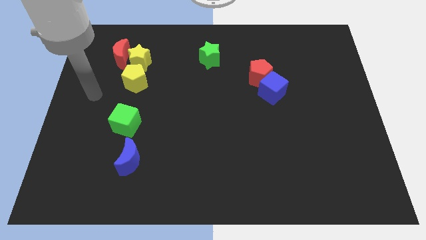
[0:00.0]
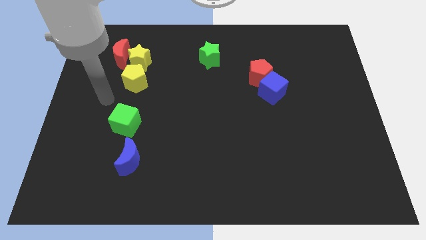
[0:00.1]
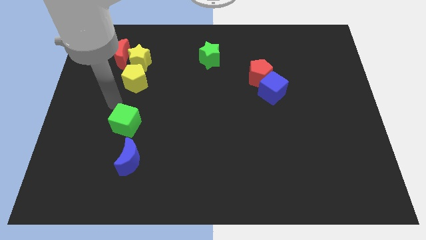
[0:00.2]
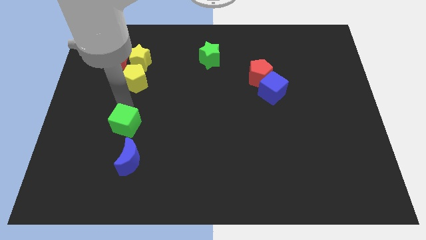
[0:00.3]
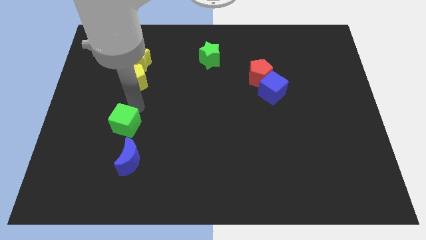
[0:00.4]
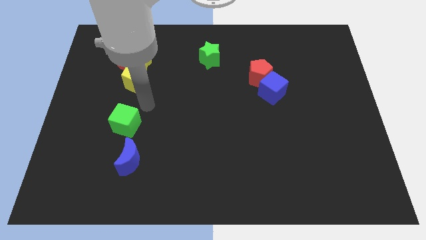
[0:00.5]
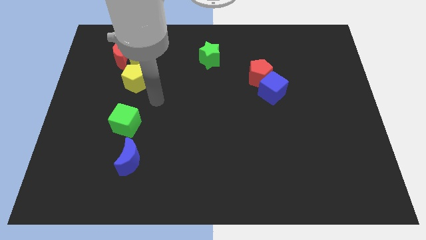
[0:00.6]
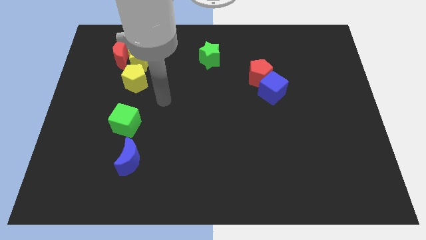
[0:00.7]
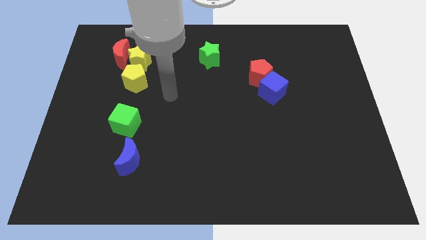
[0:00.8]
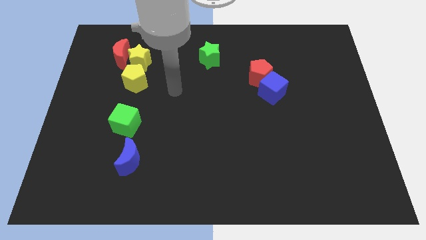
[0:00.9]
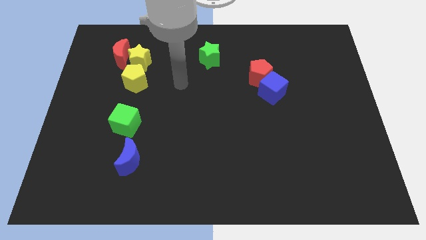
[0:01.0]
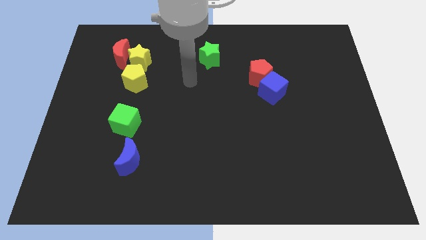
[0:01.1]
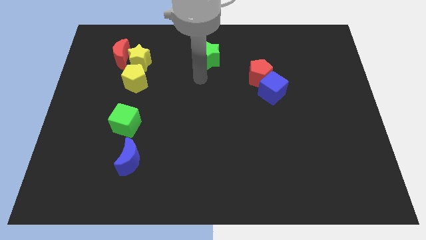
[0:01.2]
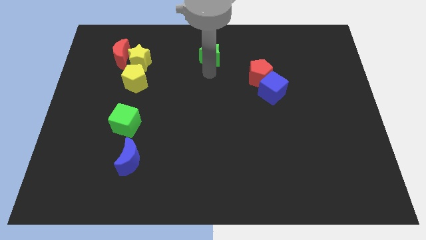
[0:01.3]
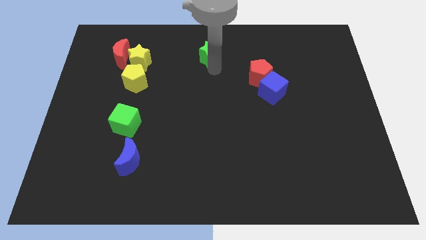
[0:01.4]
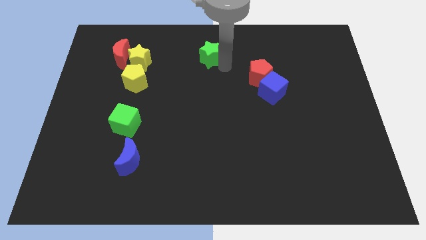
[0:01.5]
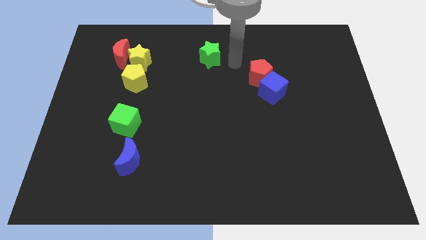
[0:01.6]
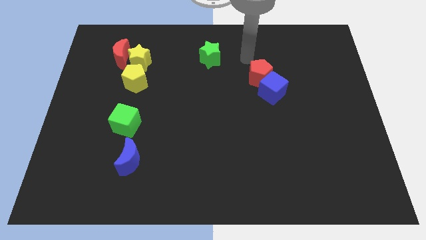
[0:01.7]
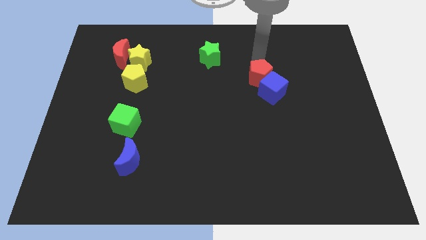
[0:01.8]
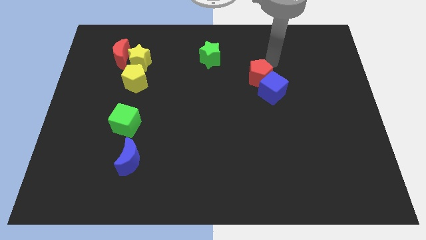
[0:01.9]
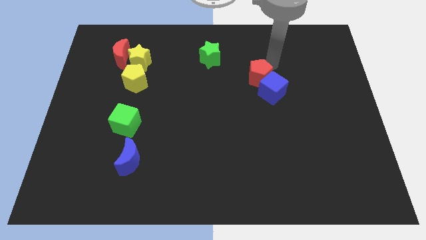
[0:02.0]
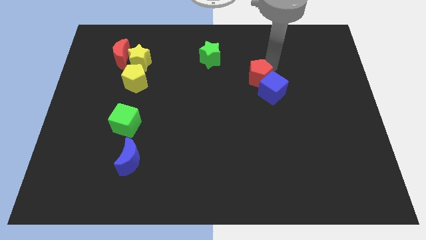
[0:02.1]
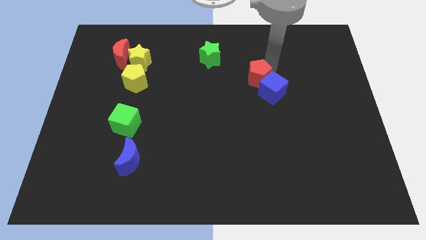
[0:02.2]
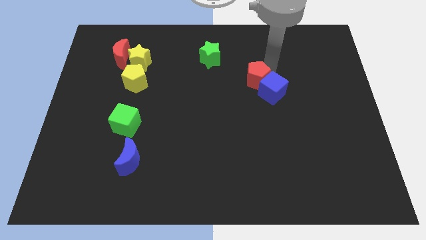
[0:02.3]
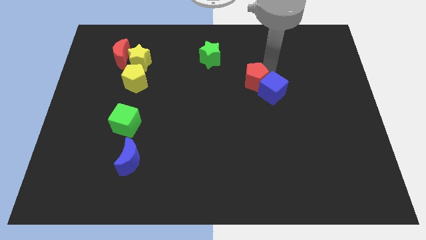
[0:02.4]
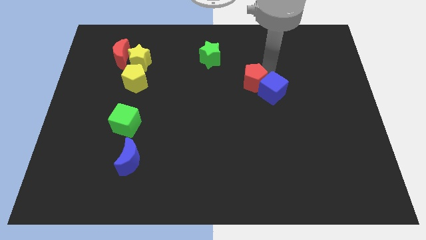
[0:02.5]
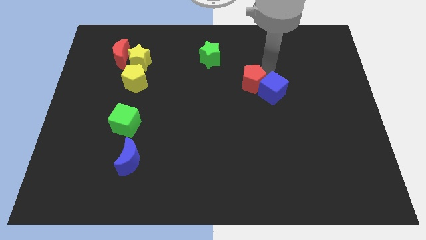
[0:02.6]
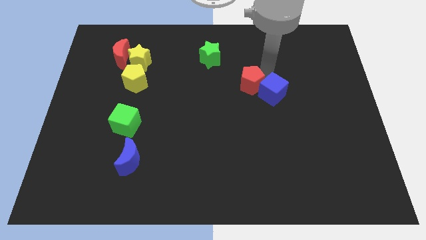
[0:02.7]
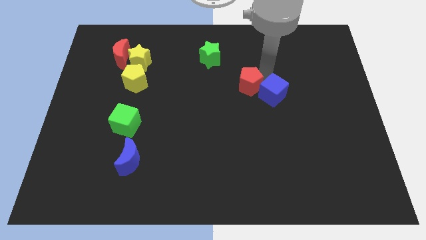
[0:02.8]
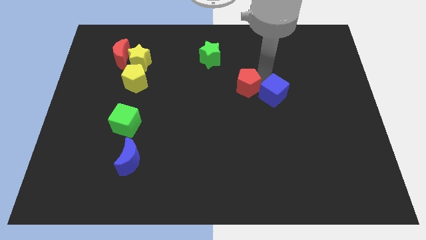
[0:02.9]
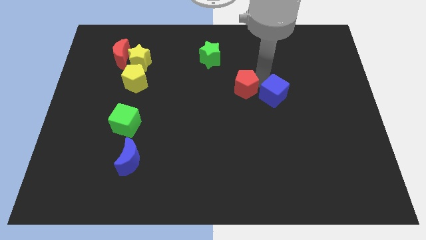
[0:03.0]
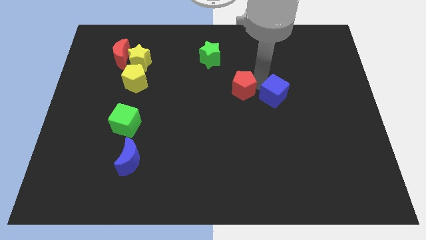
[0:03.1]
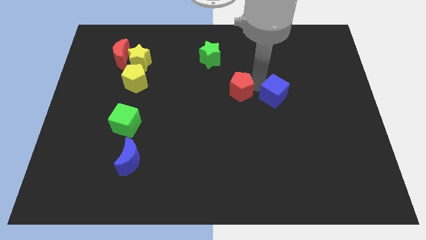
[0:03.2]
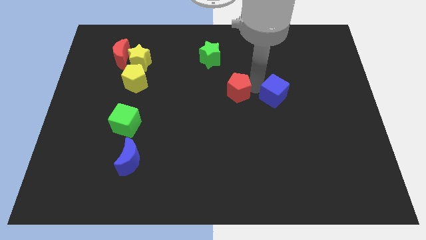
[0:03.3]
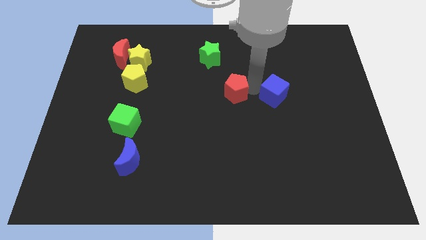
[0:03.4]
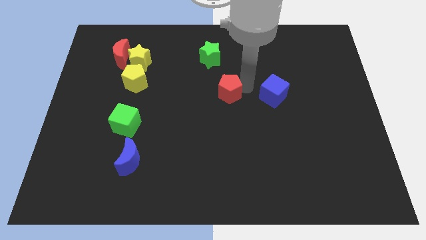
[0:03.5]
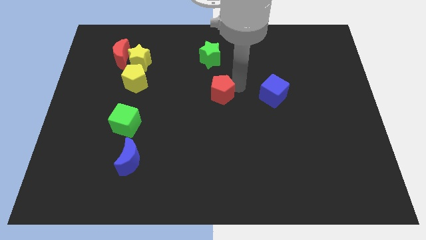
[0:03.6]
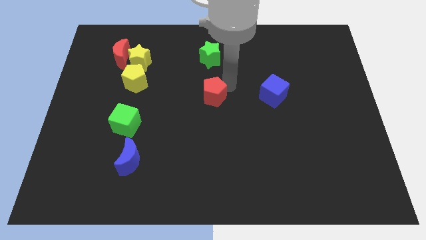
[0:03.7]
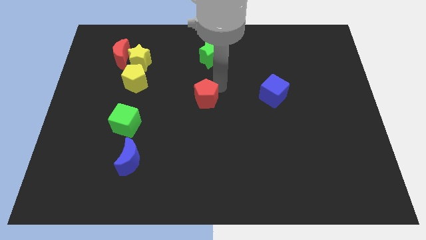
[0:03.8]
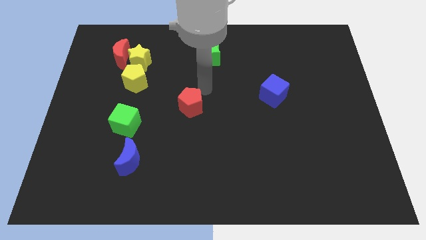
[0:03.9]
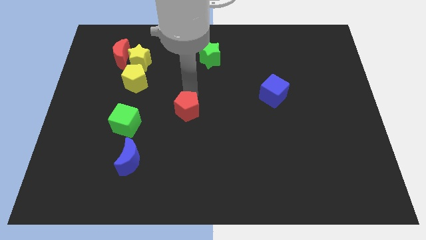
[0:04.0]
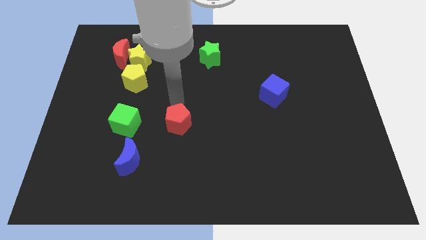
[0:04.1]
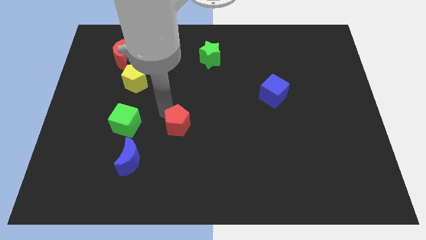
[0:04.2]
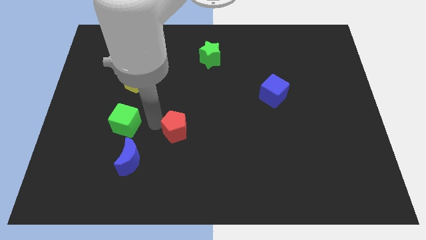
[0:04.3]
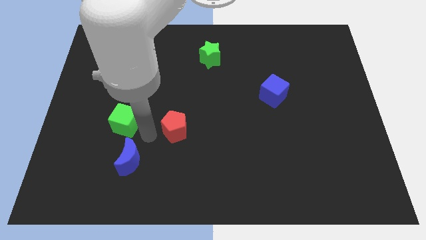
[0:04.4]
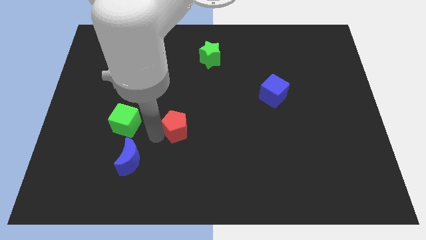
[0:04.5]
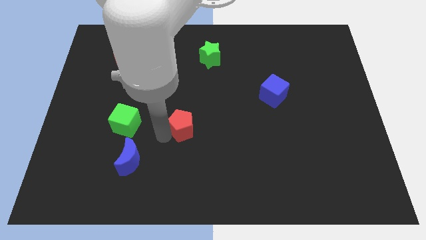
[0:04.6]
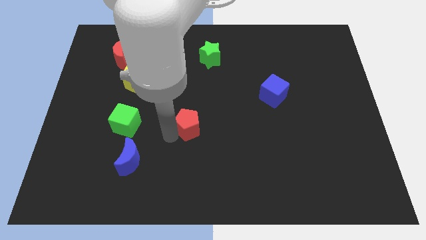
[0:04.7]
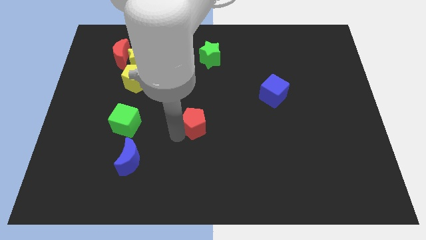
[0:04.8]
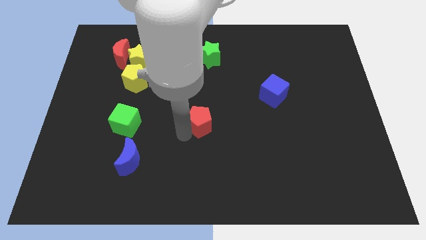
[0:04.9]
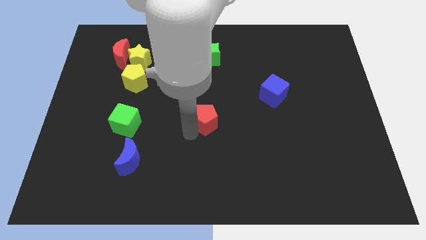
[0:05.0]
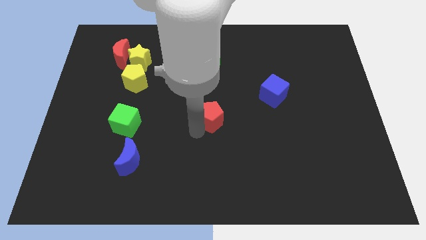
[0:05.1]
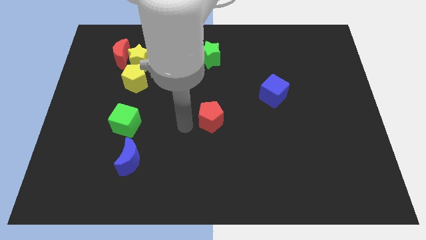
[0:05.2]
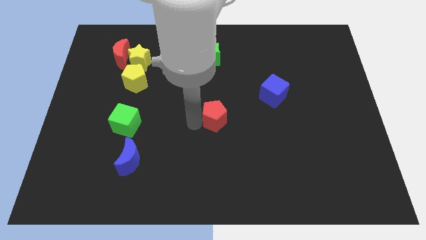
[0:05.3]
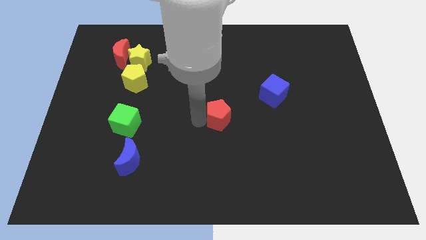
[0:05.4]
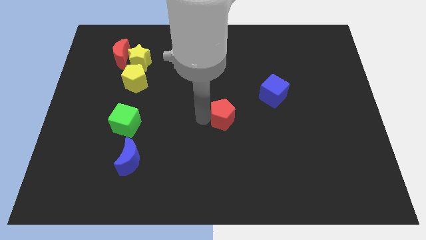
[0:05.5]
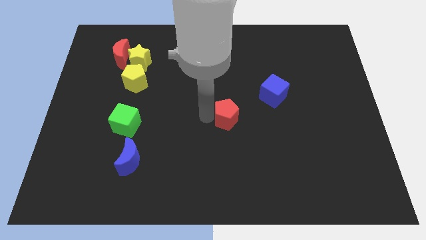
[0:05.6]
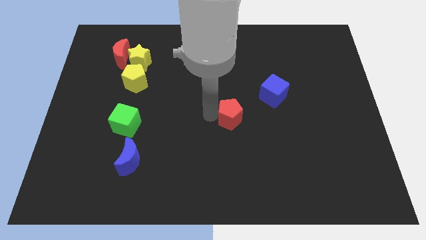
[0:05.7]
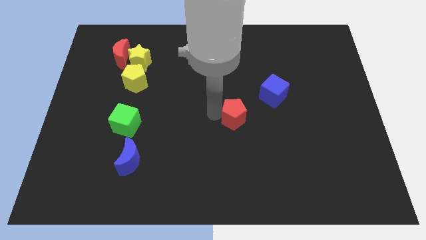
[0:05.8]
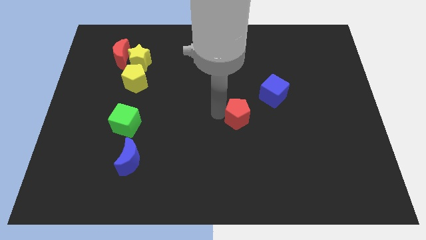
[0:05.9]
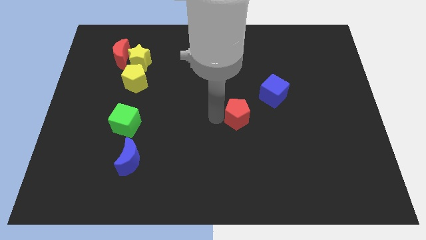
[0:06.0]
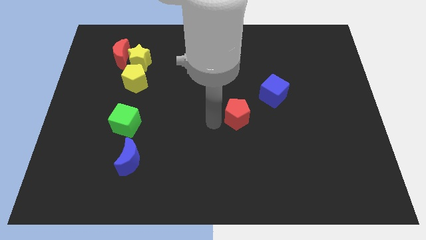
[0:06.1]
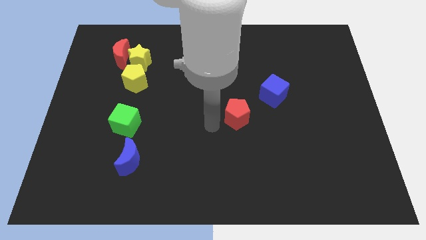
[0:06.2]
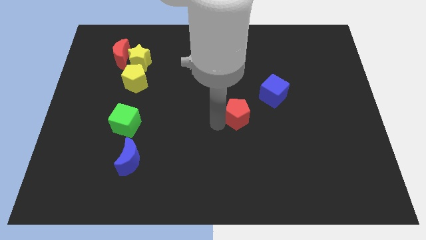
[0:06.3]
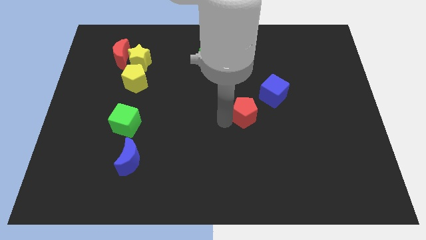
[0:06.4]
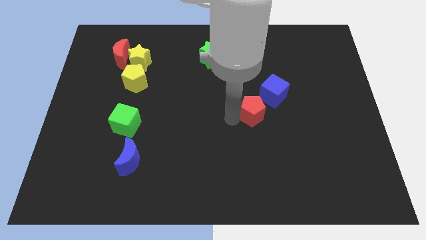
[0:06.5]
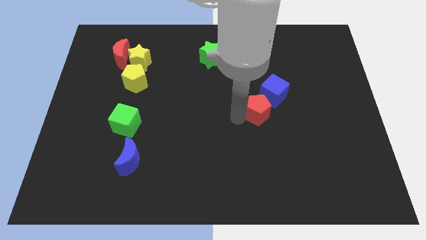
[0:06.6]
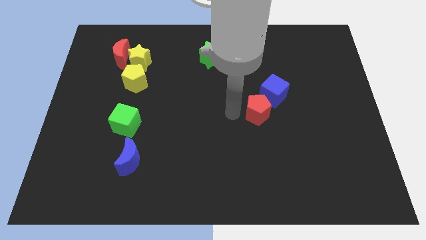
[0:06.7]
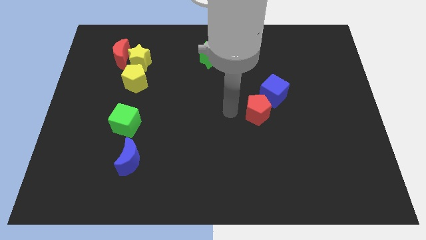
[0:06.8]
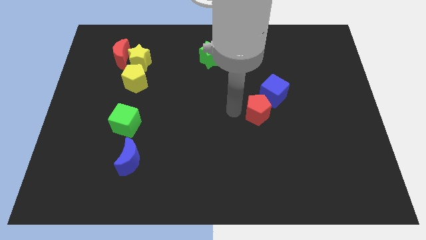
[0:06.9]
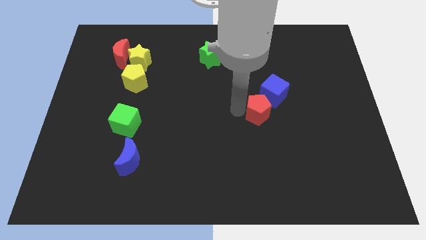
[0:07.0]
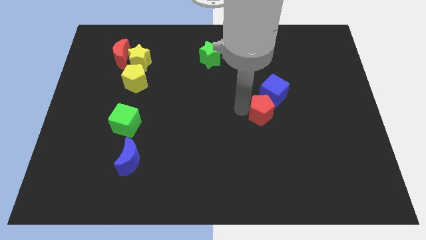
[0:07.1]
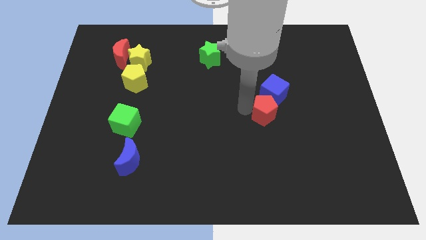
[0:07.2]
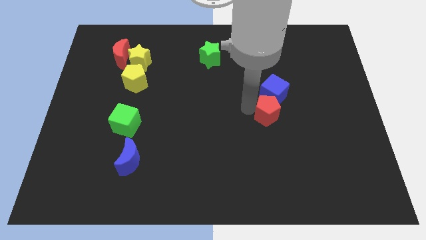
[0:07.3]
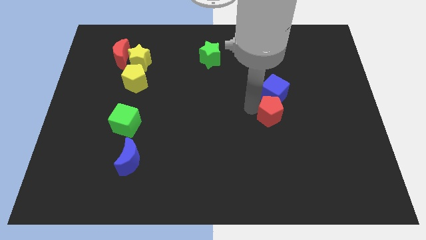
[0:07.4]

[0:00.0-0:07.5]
slightly push the red pentagon downwards and then right

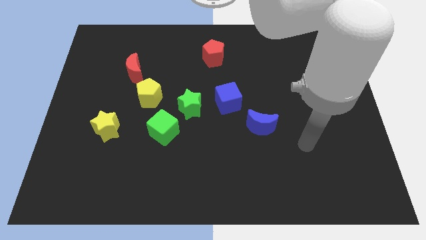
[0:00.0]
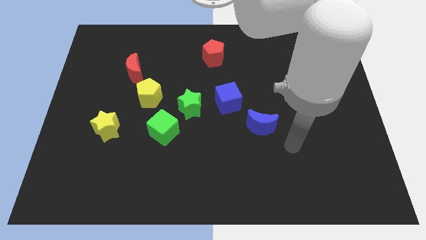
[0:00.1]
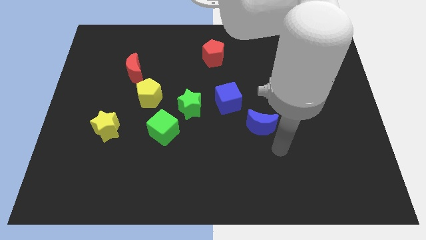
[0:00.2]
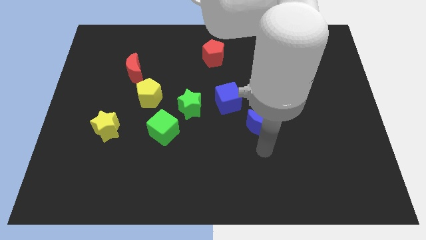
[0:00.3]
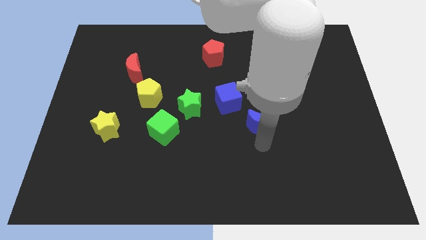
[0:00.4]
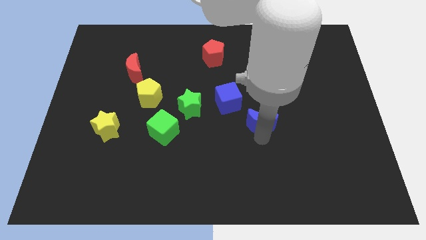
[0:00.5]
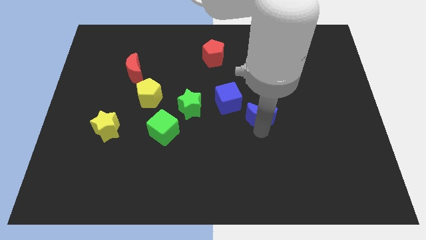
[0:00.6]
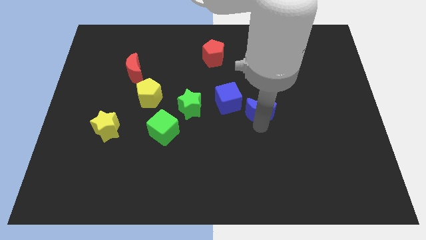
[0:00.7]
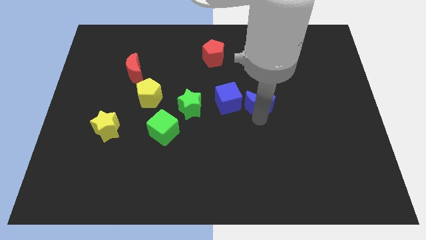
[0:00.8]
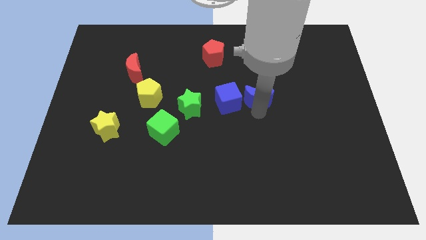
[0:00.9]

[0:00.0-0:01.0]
move the blue moon a little upwards
